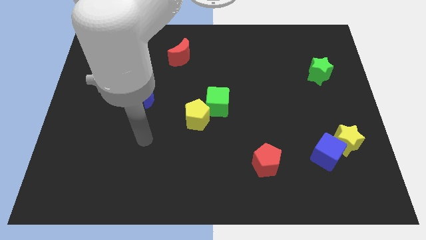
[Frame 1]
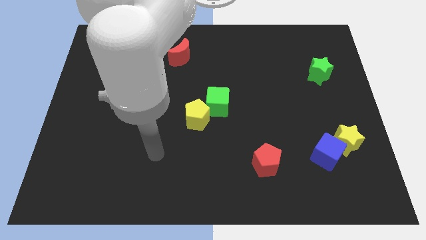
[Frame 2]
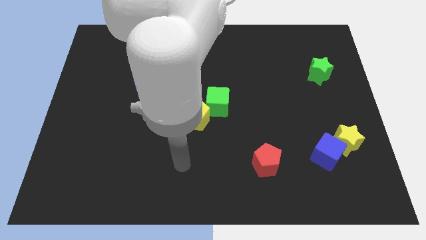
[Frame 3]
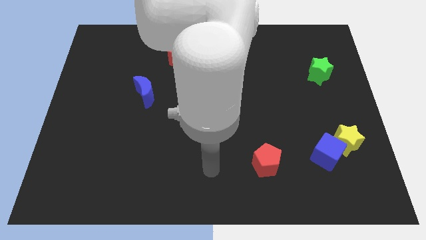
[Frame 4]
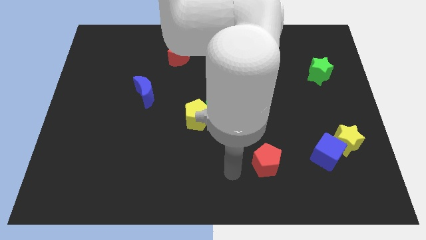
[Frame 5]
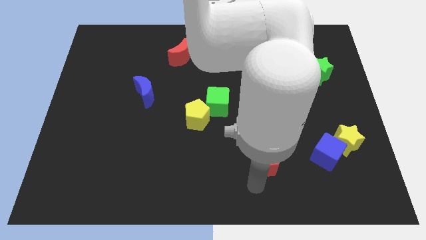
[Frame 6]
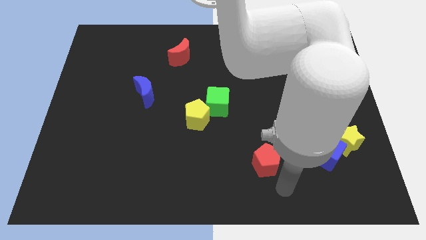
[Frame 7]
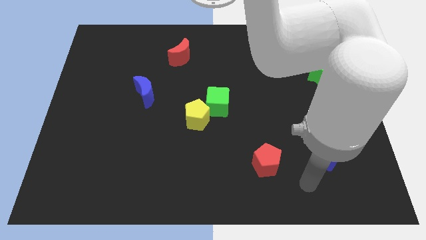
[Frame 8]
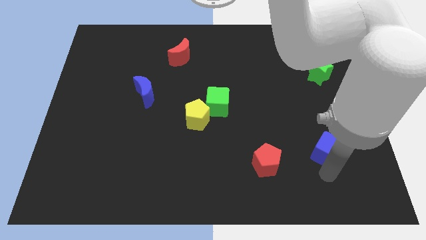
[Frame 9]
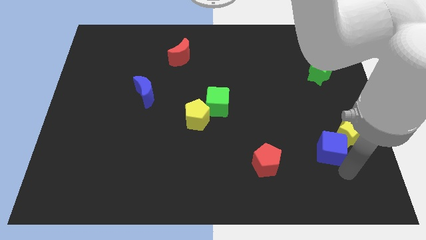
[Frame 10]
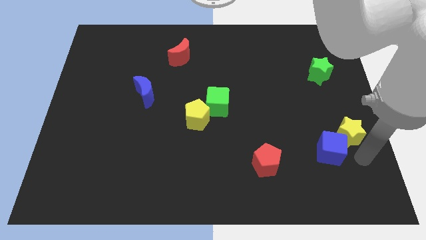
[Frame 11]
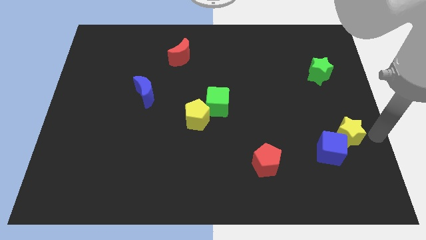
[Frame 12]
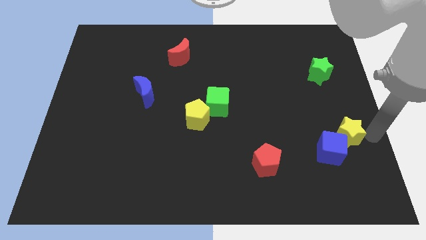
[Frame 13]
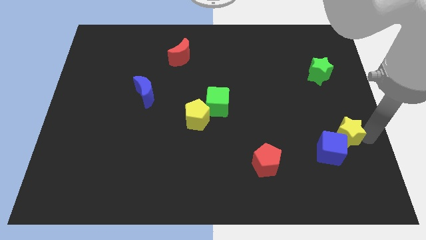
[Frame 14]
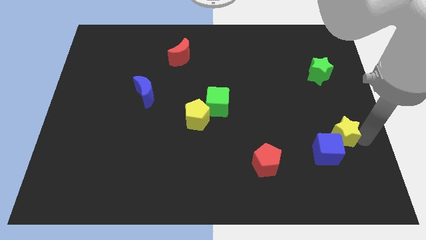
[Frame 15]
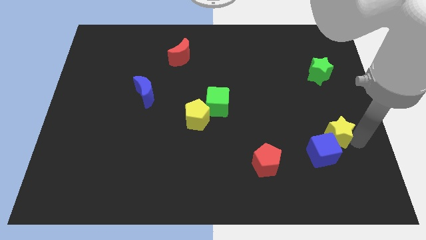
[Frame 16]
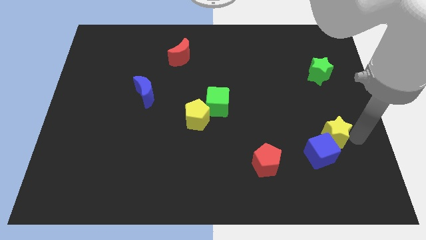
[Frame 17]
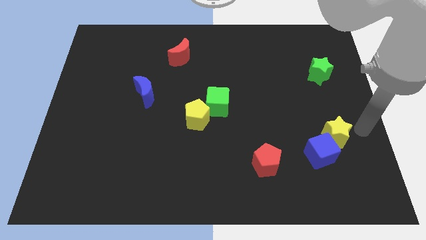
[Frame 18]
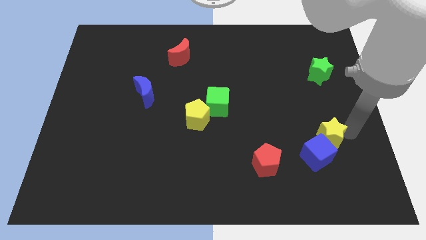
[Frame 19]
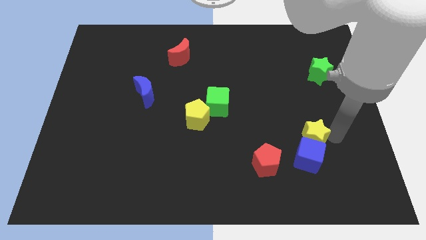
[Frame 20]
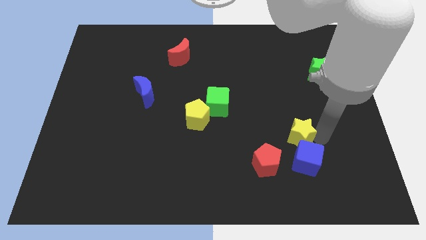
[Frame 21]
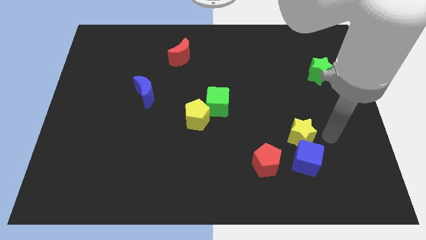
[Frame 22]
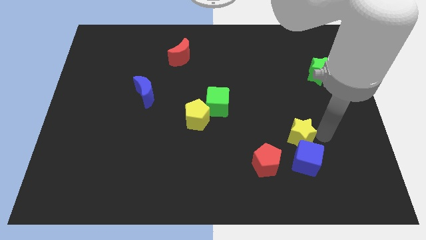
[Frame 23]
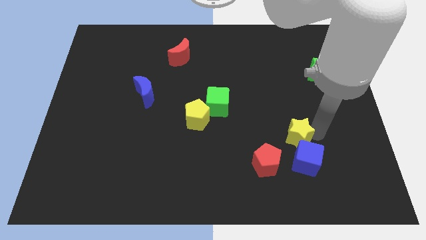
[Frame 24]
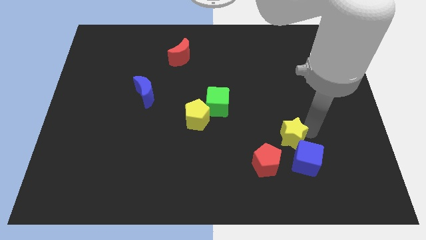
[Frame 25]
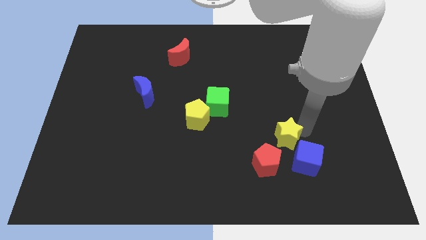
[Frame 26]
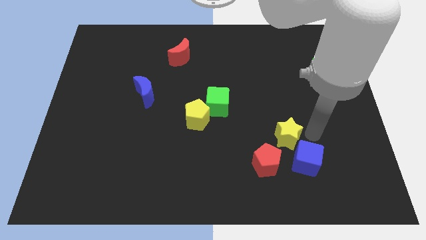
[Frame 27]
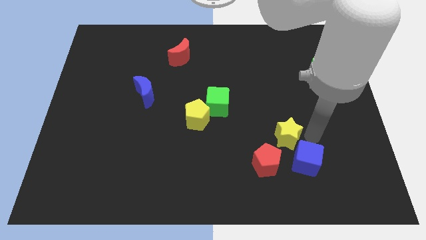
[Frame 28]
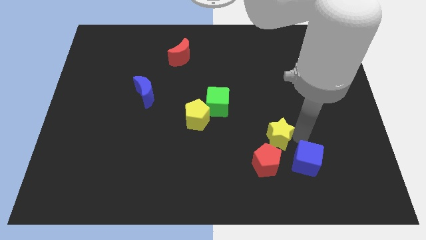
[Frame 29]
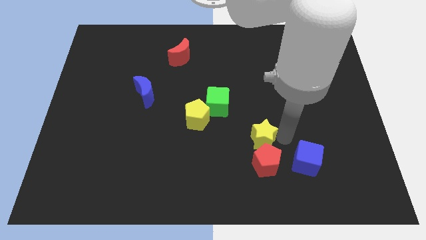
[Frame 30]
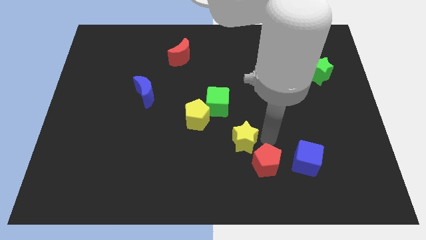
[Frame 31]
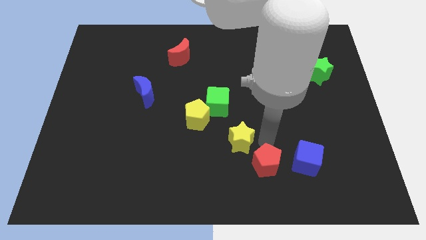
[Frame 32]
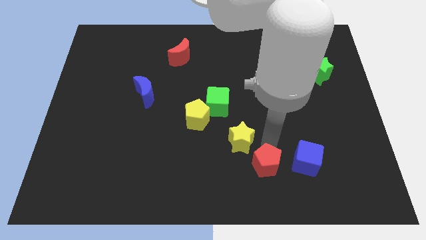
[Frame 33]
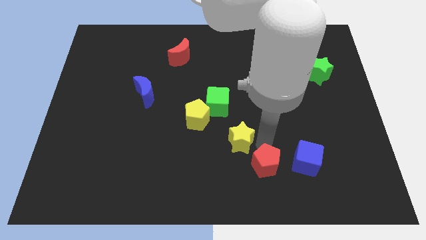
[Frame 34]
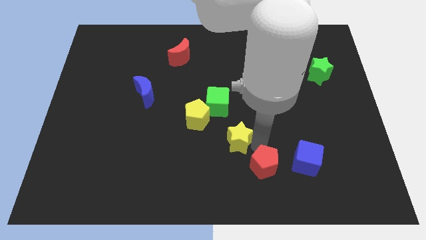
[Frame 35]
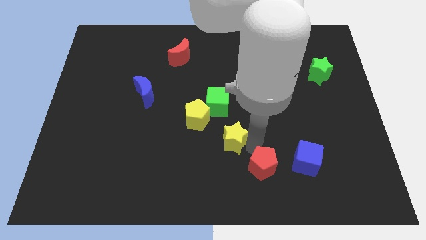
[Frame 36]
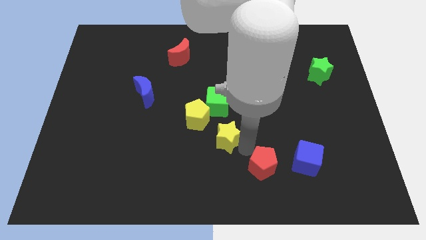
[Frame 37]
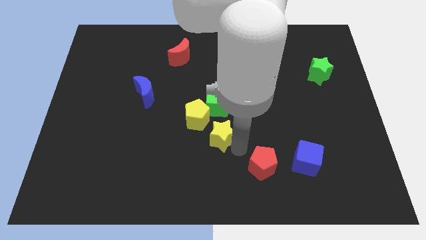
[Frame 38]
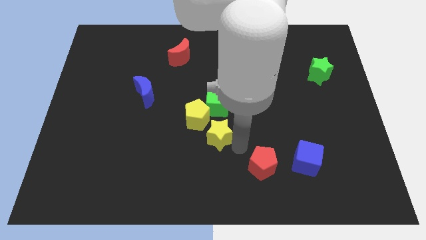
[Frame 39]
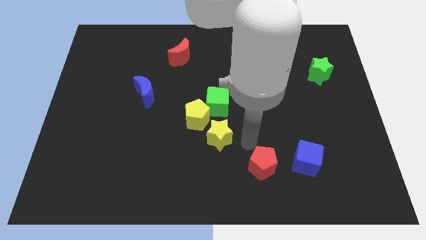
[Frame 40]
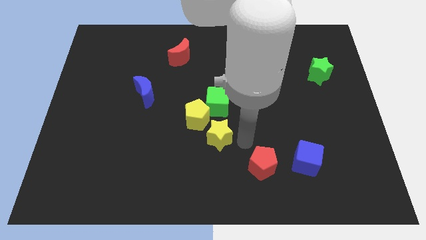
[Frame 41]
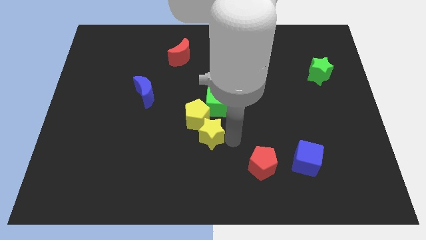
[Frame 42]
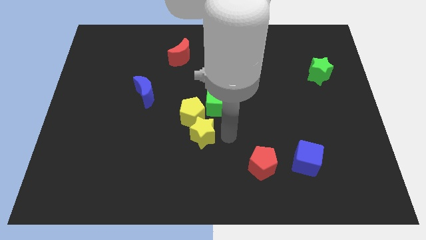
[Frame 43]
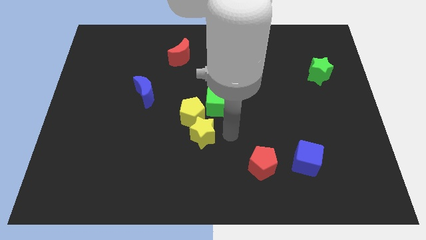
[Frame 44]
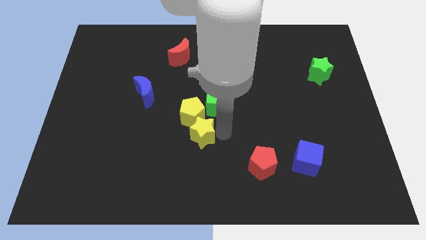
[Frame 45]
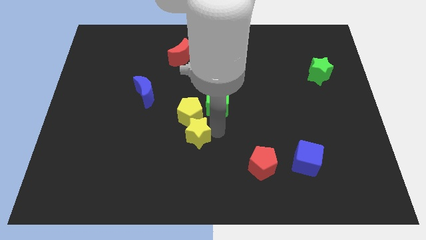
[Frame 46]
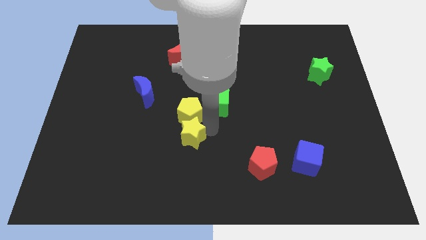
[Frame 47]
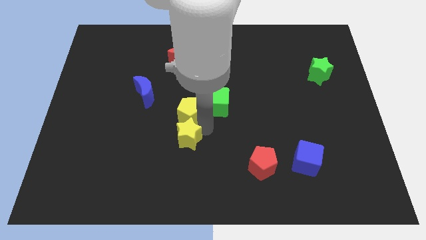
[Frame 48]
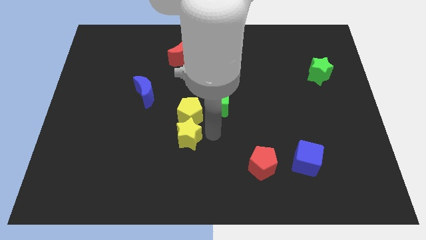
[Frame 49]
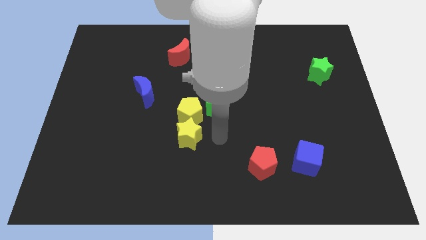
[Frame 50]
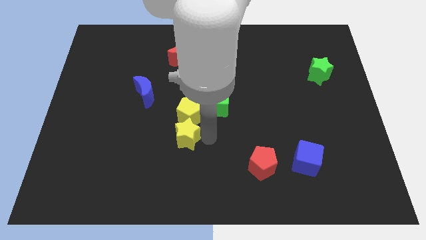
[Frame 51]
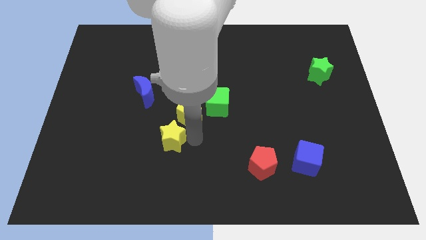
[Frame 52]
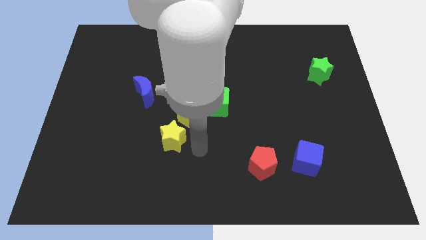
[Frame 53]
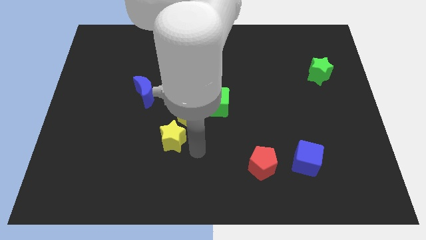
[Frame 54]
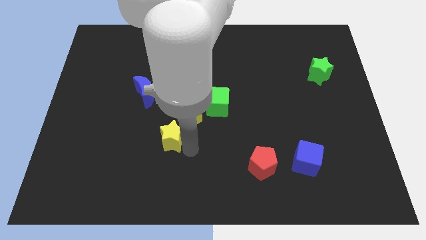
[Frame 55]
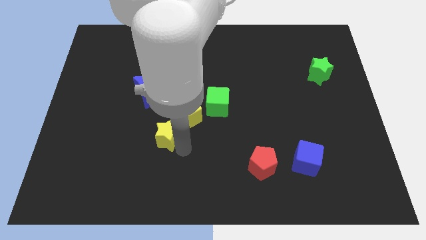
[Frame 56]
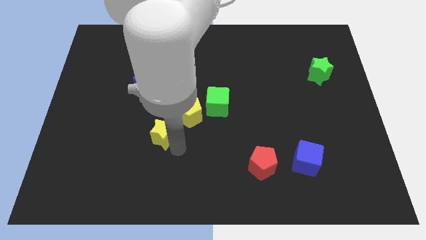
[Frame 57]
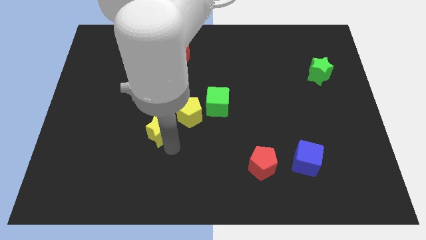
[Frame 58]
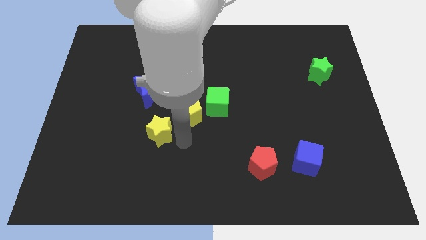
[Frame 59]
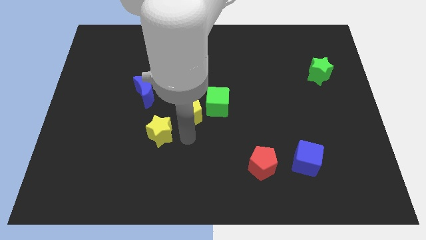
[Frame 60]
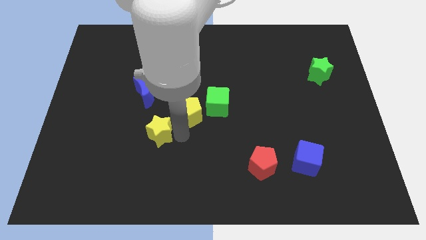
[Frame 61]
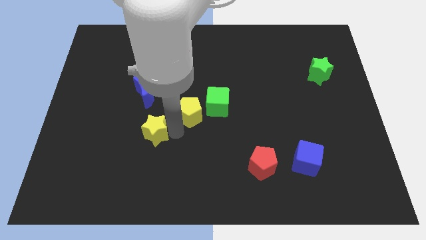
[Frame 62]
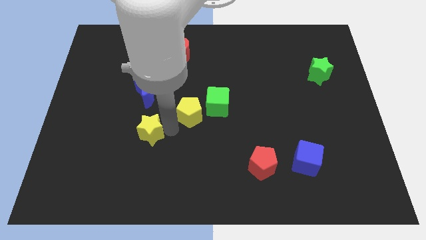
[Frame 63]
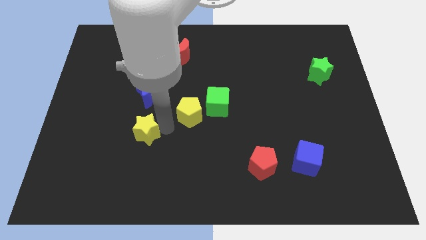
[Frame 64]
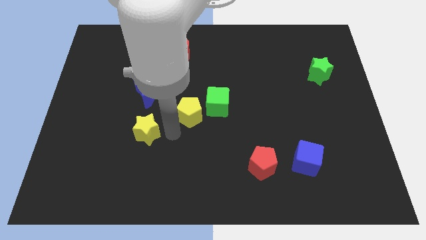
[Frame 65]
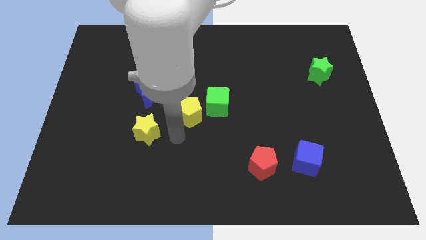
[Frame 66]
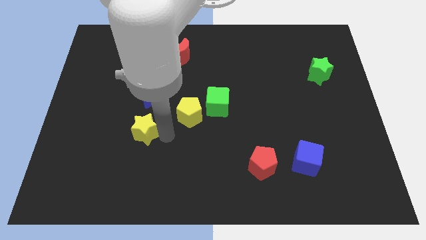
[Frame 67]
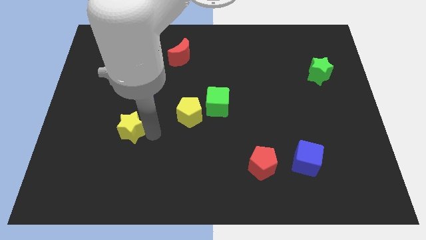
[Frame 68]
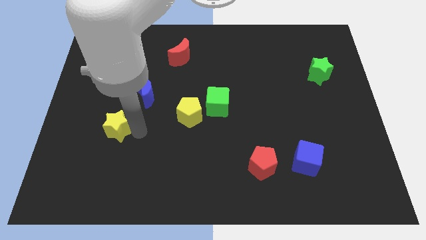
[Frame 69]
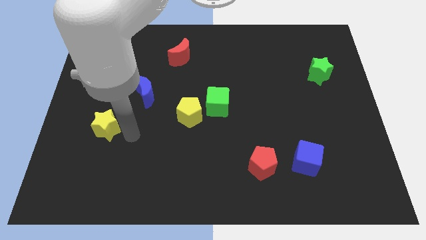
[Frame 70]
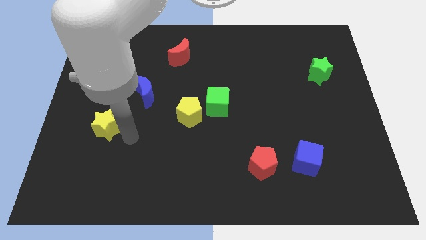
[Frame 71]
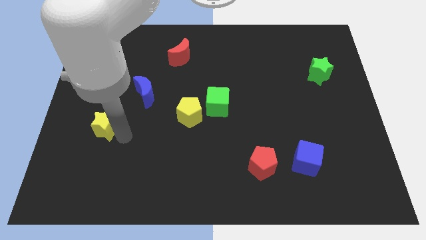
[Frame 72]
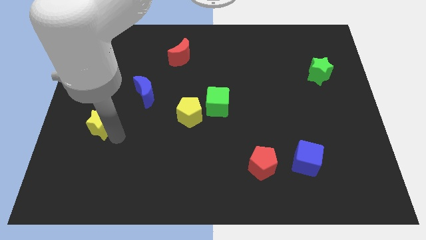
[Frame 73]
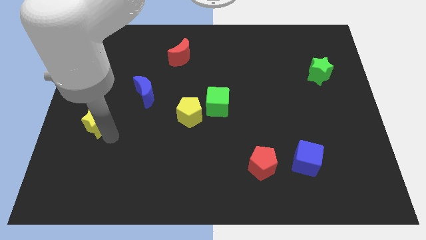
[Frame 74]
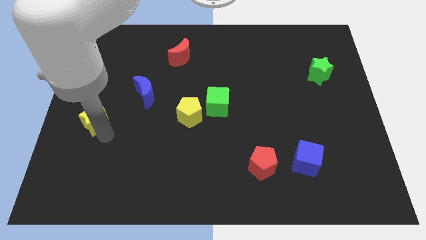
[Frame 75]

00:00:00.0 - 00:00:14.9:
move the yellow star to the left side
